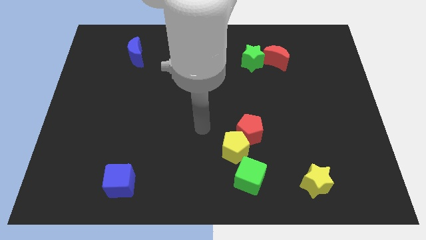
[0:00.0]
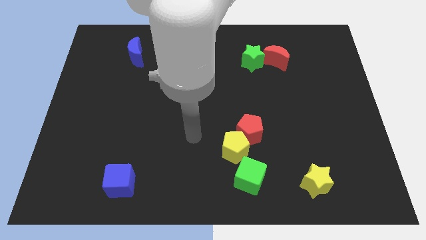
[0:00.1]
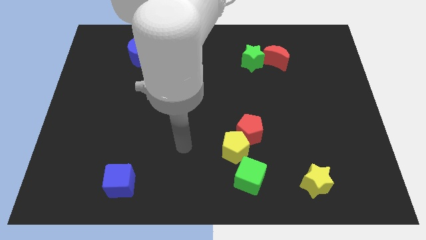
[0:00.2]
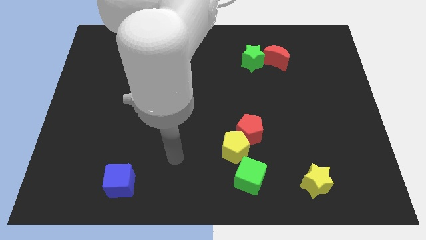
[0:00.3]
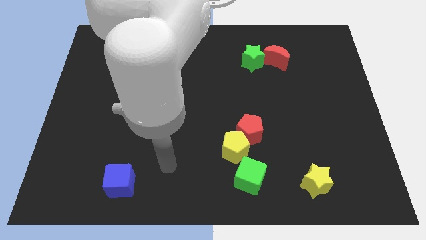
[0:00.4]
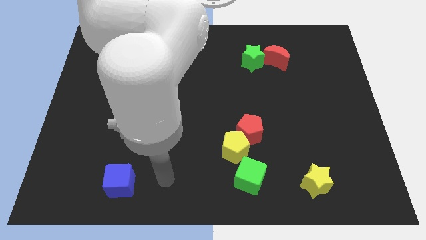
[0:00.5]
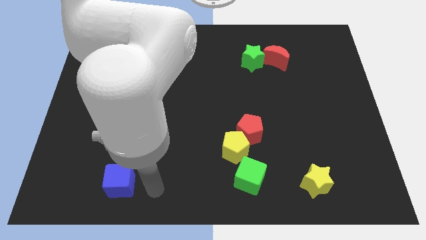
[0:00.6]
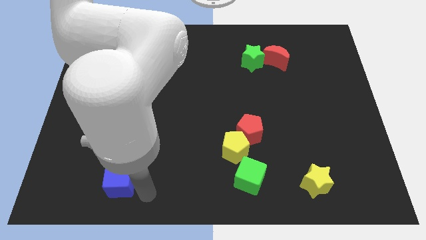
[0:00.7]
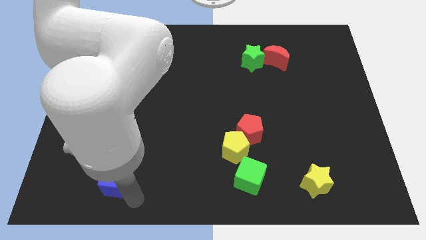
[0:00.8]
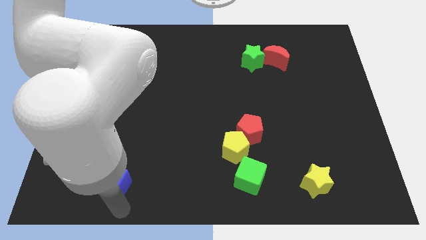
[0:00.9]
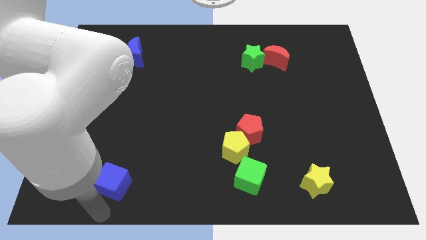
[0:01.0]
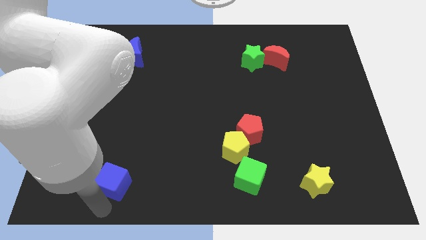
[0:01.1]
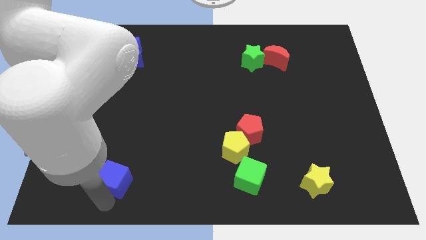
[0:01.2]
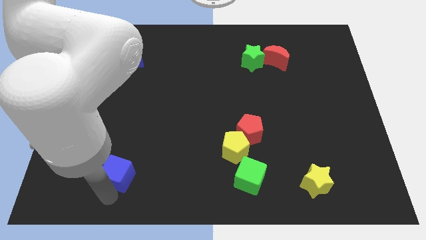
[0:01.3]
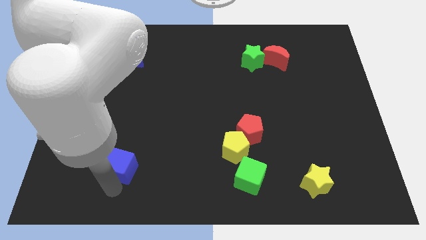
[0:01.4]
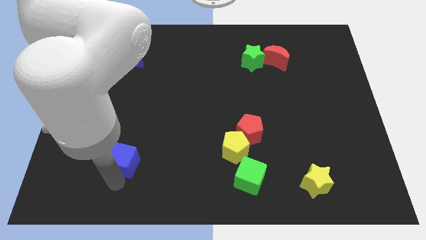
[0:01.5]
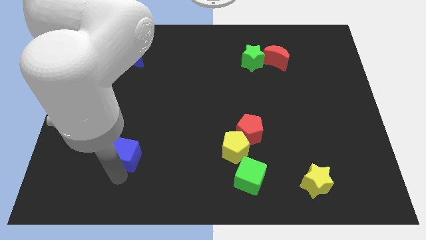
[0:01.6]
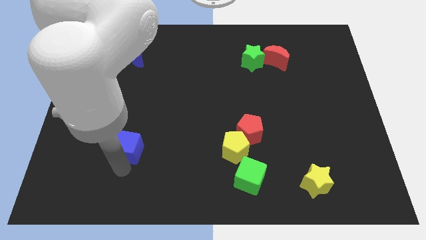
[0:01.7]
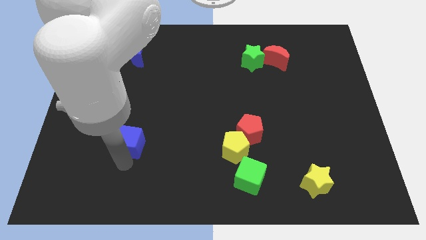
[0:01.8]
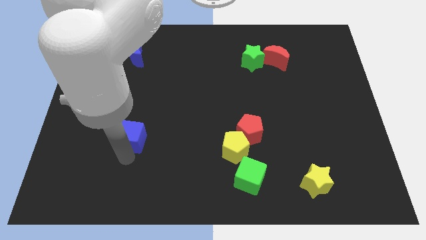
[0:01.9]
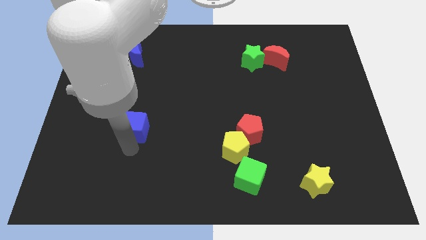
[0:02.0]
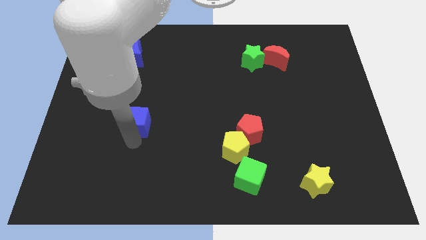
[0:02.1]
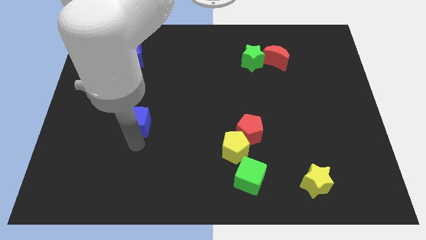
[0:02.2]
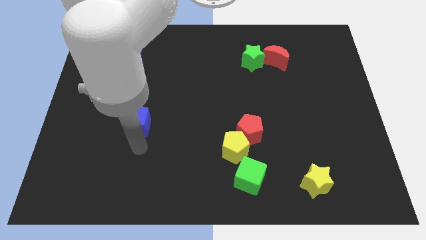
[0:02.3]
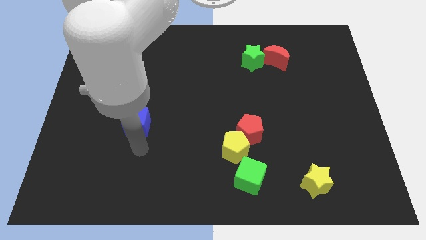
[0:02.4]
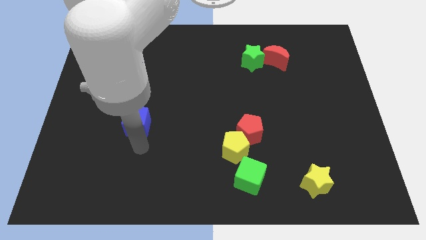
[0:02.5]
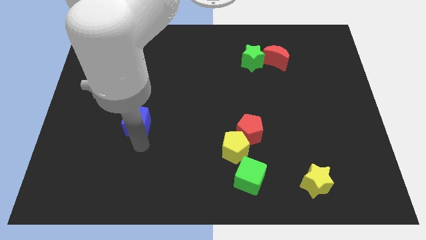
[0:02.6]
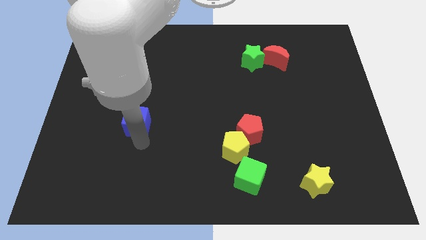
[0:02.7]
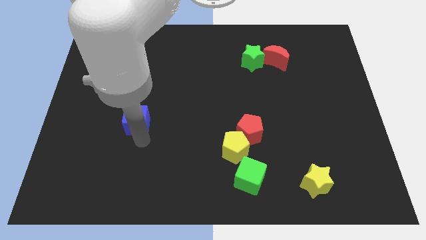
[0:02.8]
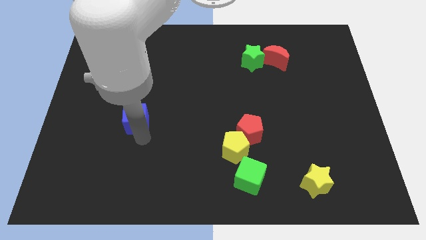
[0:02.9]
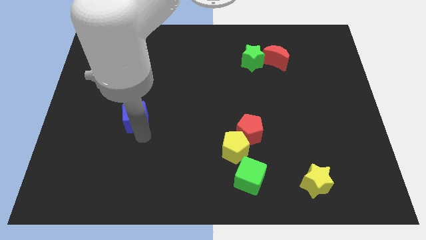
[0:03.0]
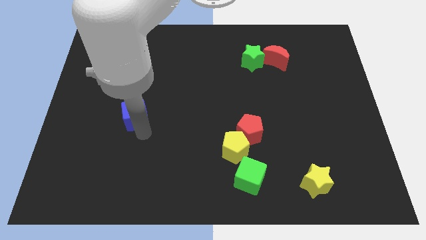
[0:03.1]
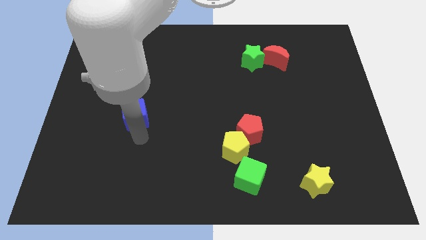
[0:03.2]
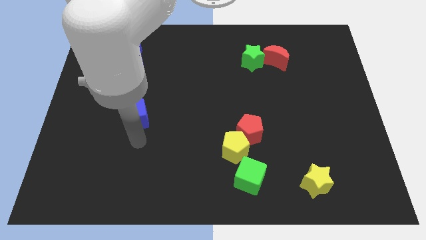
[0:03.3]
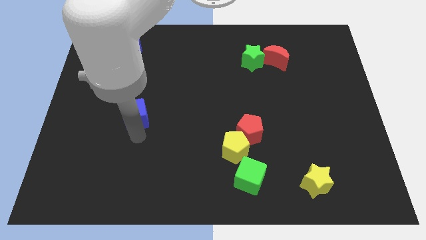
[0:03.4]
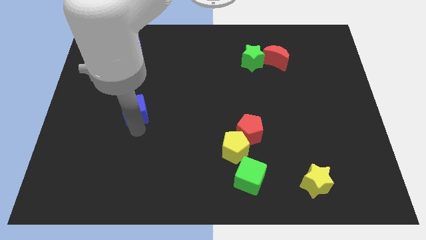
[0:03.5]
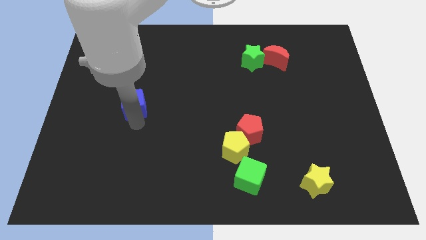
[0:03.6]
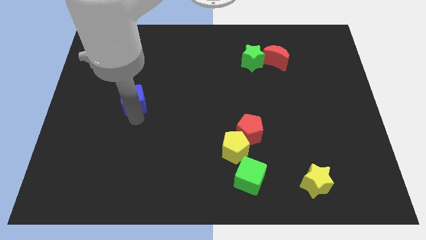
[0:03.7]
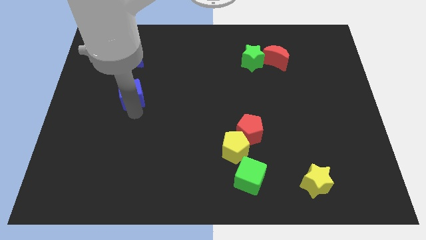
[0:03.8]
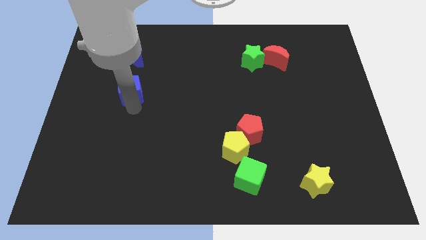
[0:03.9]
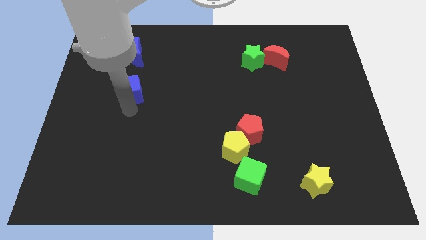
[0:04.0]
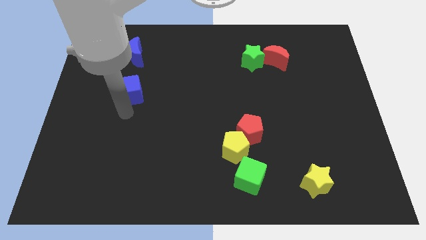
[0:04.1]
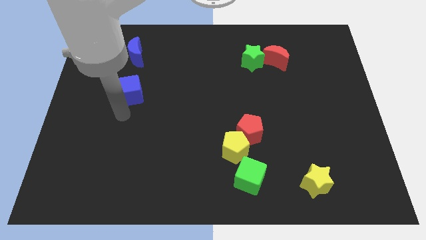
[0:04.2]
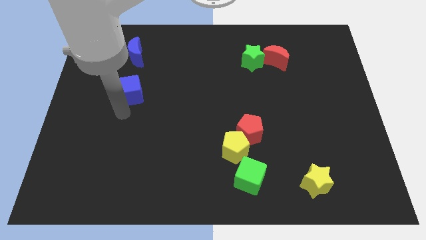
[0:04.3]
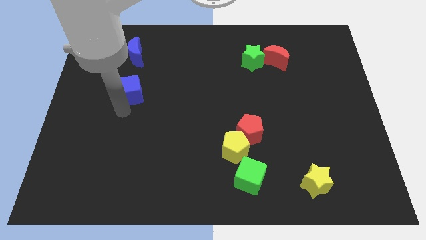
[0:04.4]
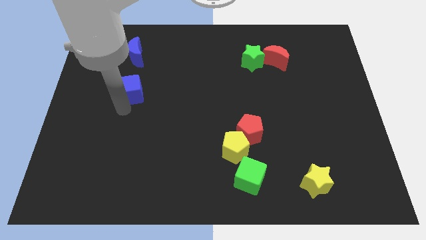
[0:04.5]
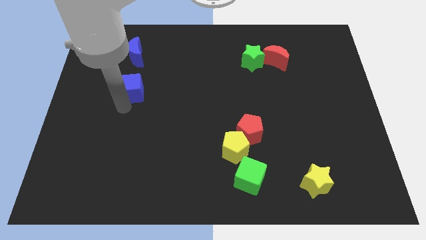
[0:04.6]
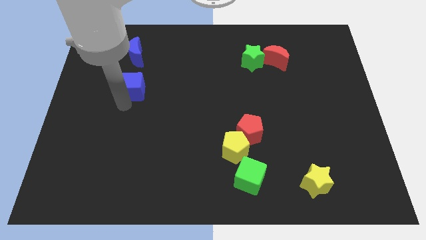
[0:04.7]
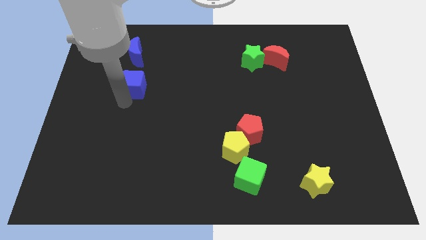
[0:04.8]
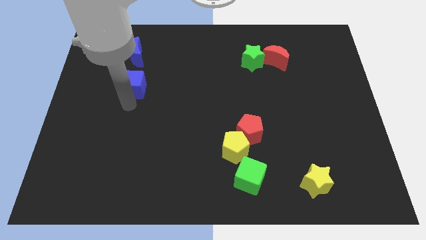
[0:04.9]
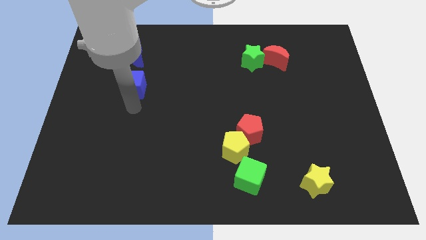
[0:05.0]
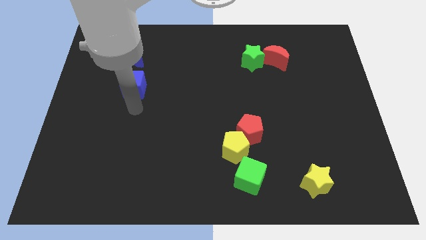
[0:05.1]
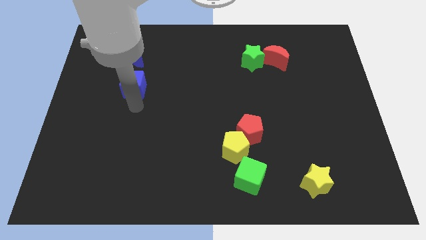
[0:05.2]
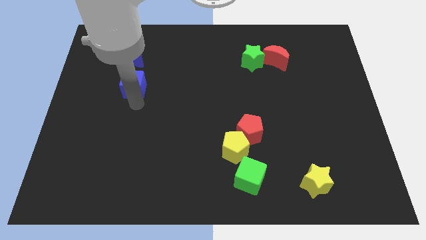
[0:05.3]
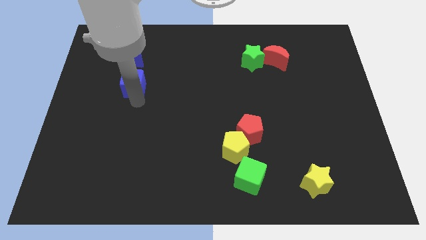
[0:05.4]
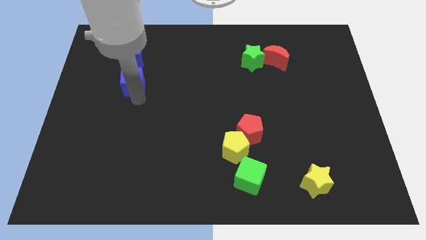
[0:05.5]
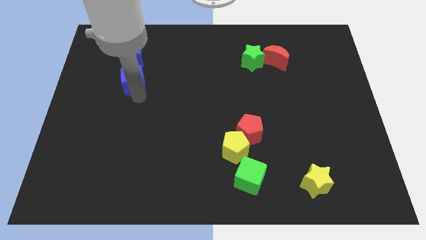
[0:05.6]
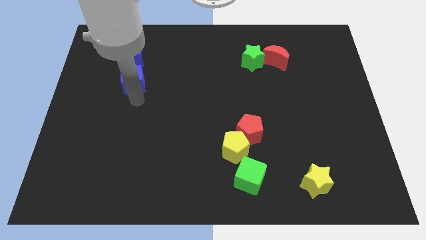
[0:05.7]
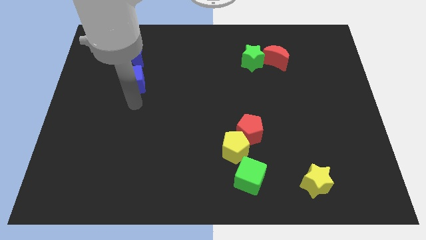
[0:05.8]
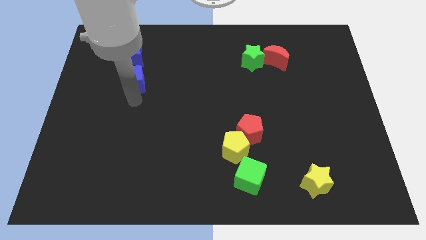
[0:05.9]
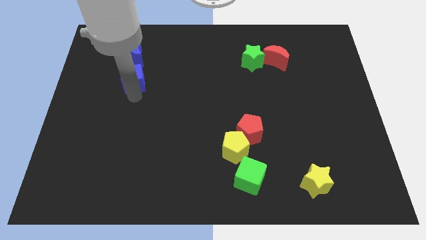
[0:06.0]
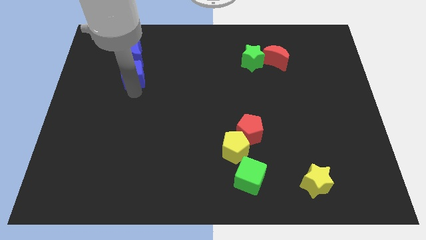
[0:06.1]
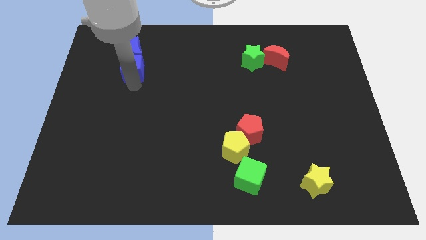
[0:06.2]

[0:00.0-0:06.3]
push the blue cube next to the blue moon

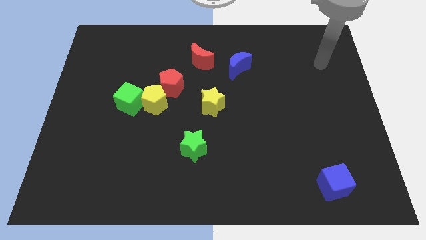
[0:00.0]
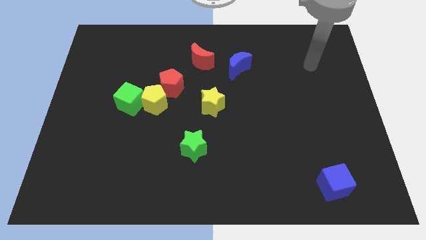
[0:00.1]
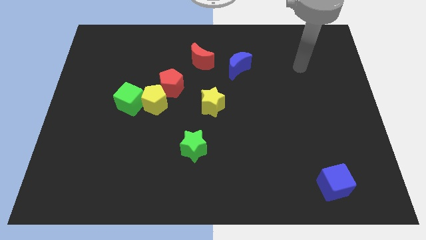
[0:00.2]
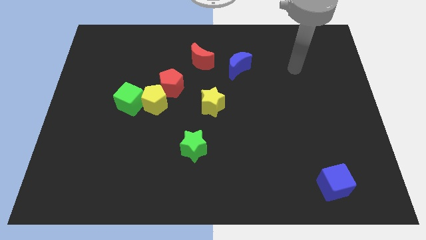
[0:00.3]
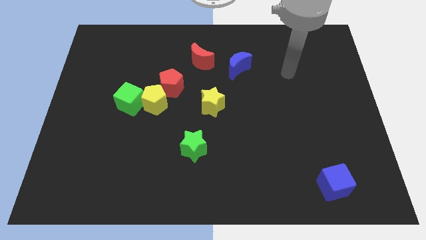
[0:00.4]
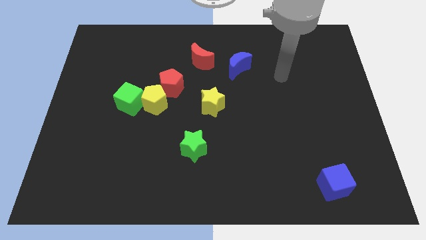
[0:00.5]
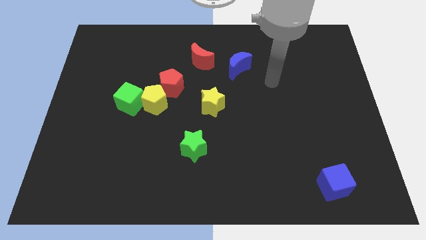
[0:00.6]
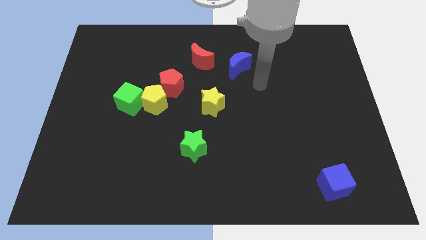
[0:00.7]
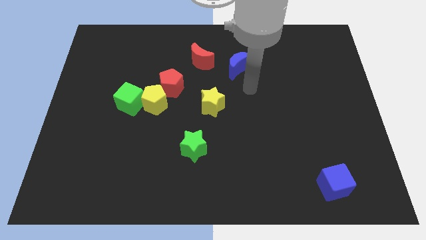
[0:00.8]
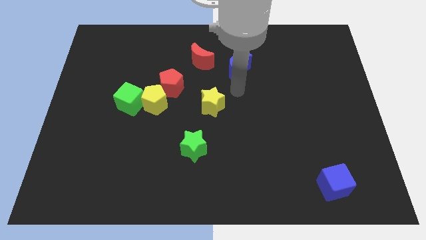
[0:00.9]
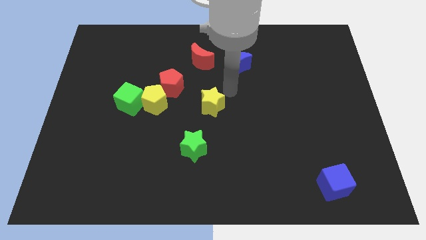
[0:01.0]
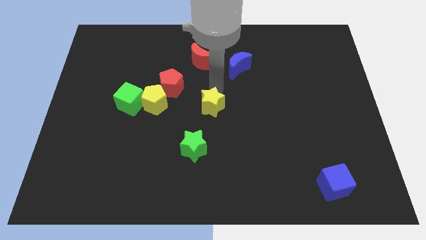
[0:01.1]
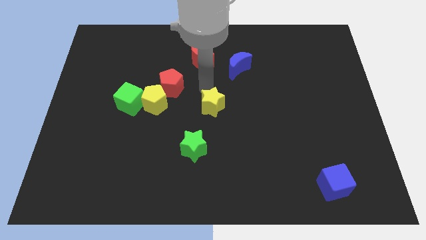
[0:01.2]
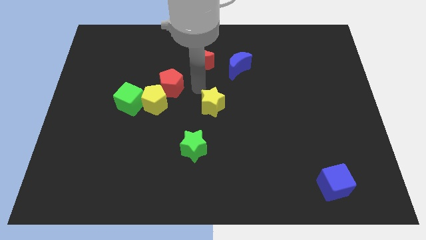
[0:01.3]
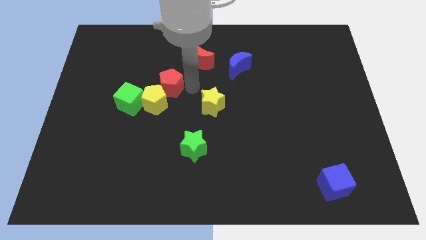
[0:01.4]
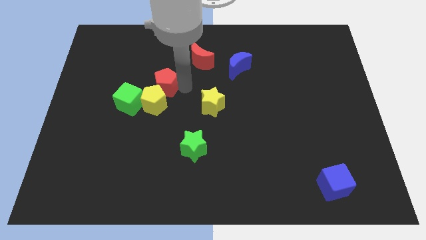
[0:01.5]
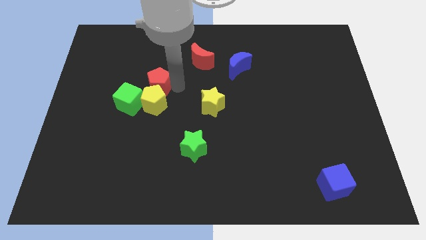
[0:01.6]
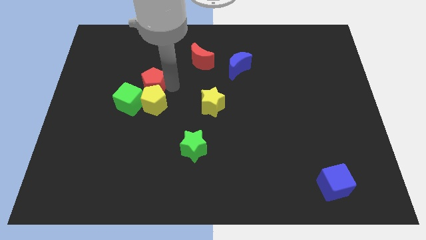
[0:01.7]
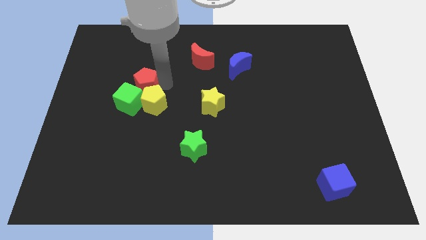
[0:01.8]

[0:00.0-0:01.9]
move the red pentagon next to the green cube
